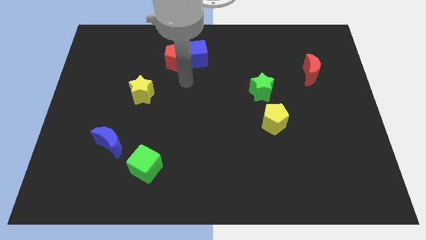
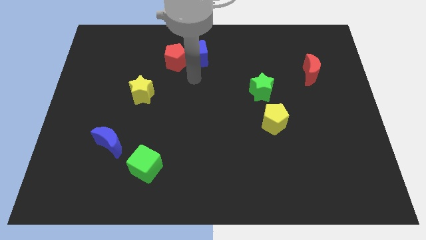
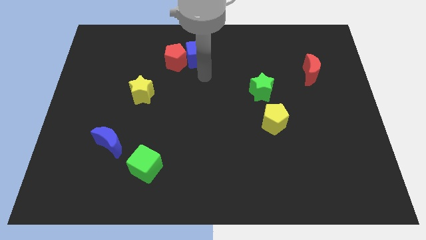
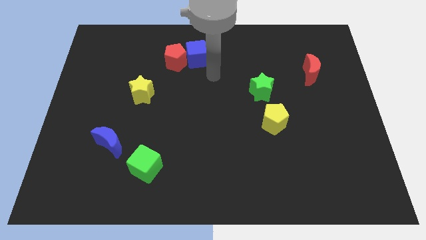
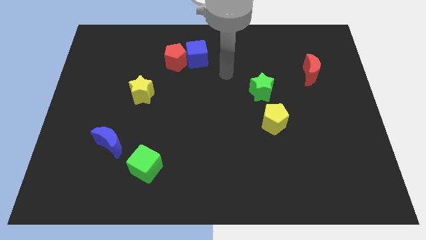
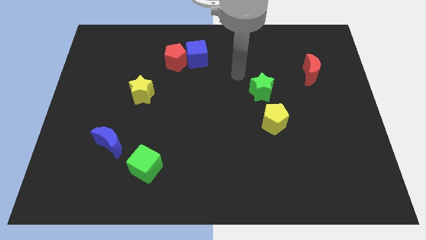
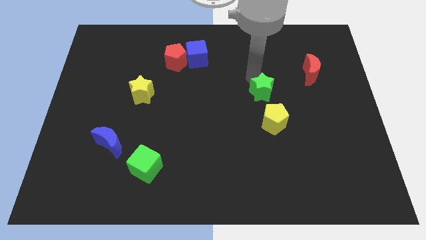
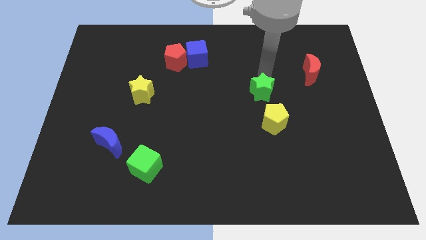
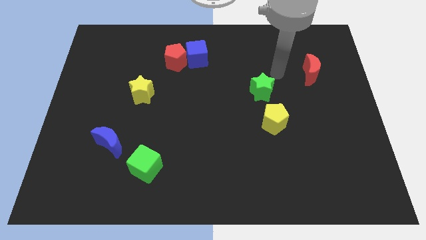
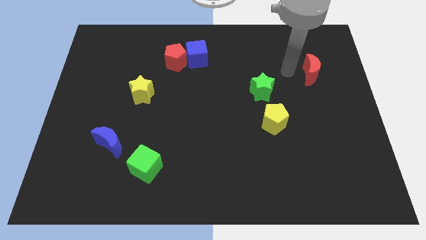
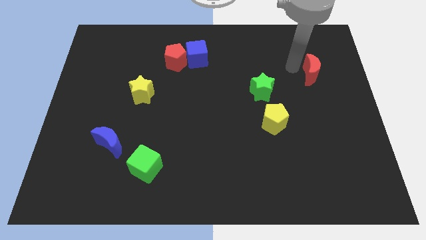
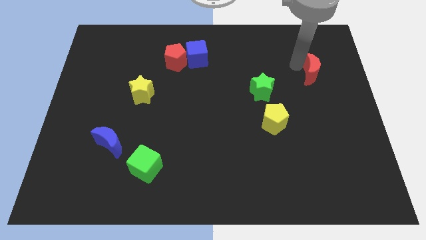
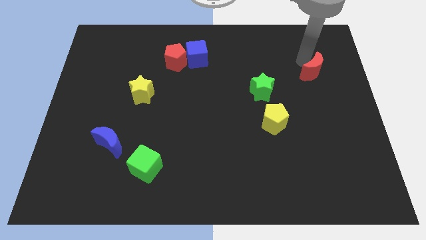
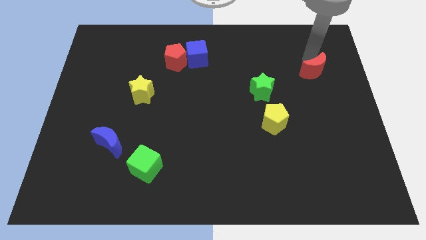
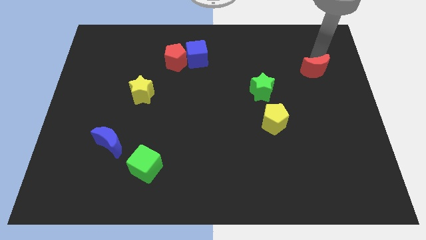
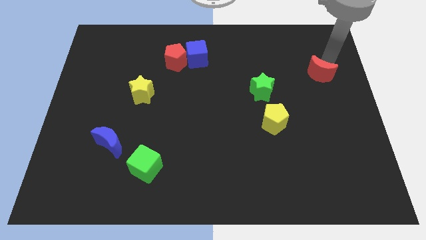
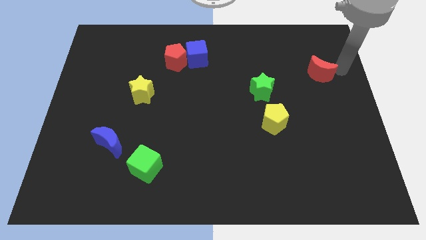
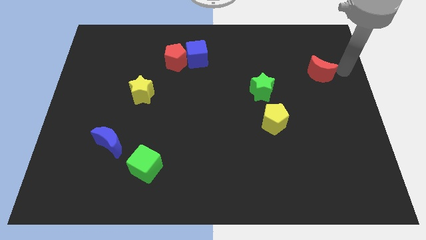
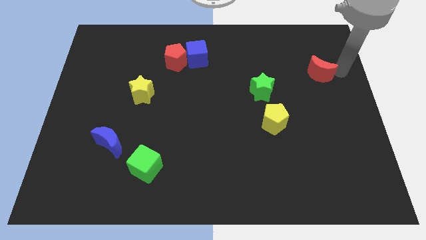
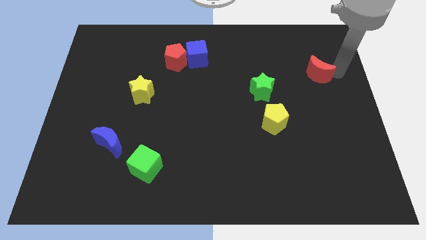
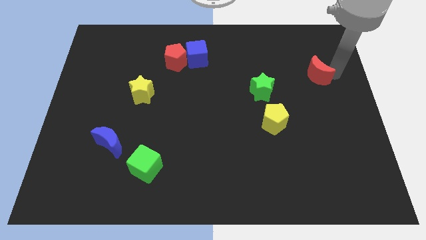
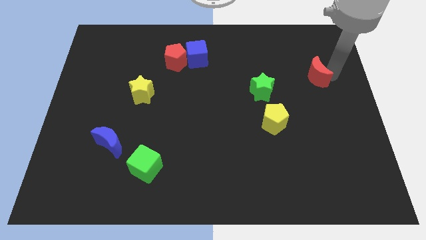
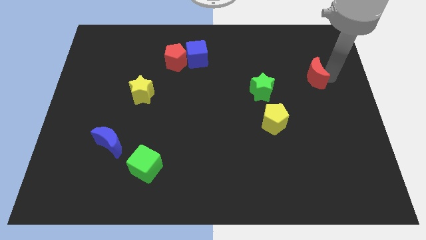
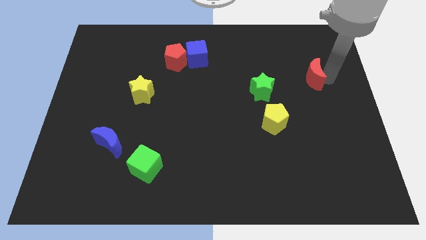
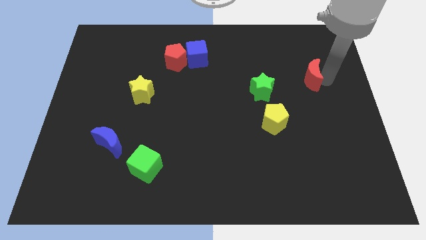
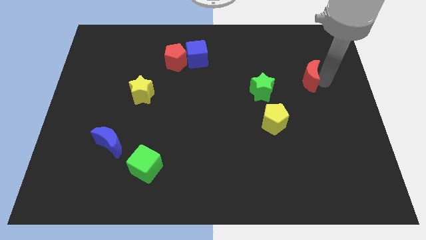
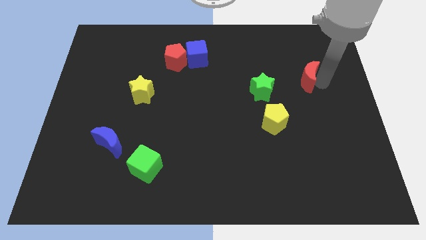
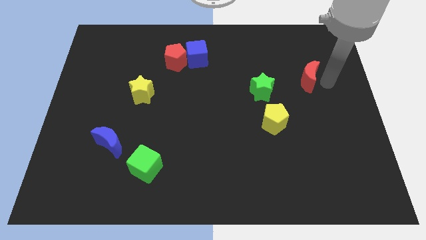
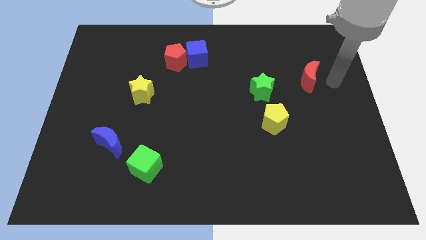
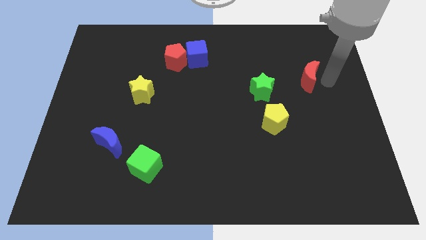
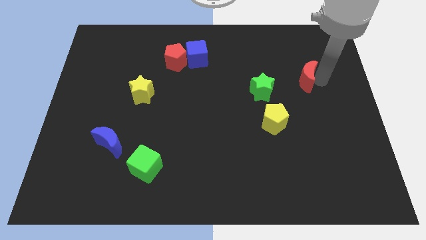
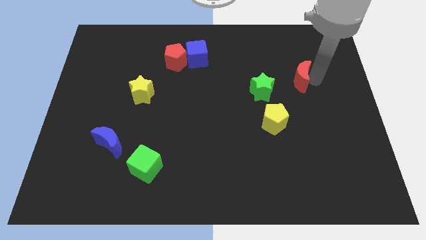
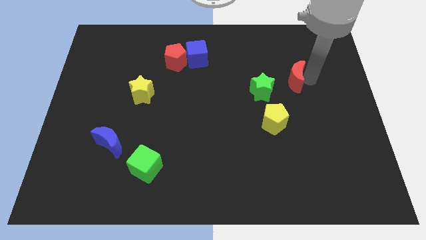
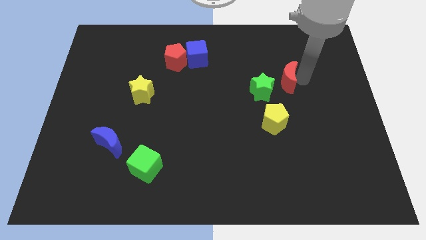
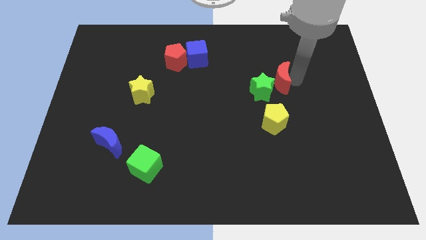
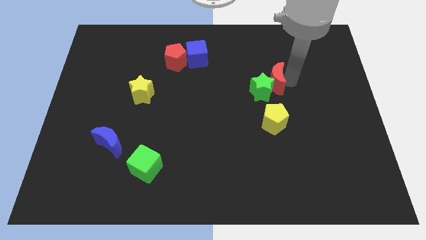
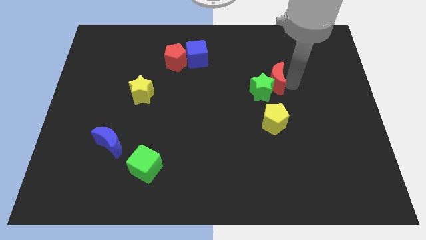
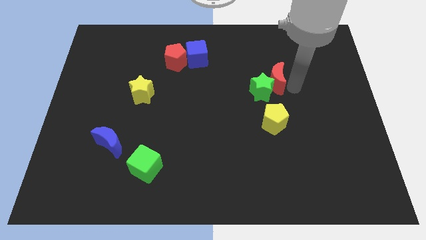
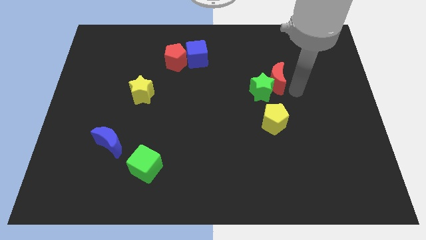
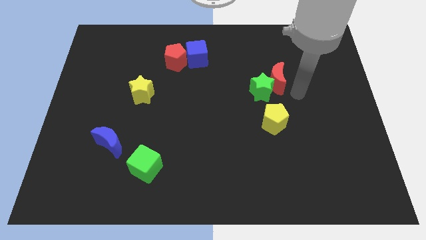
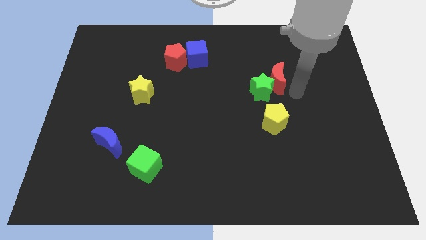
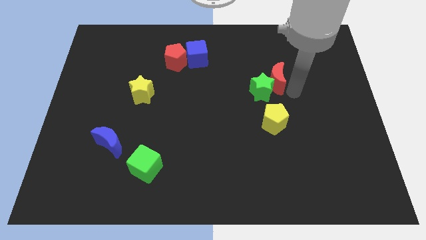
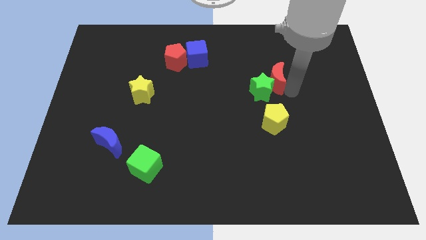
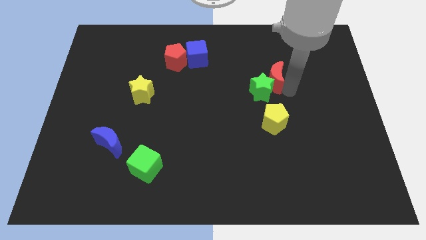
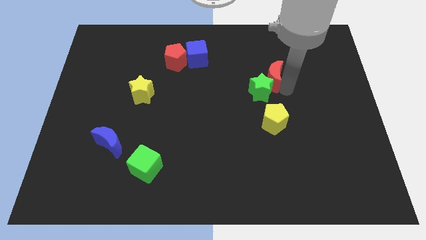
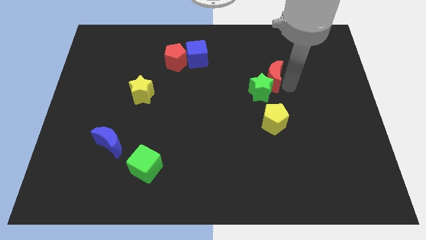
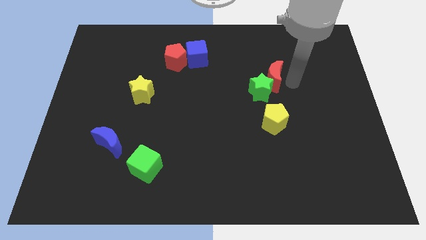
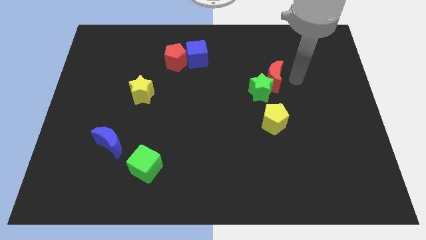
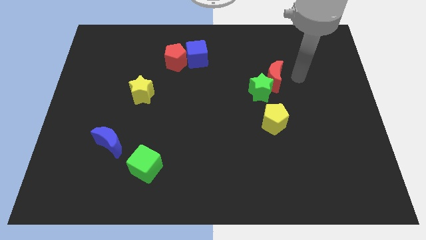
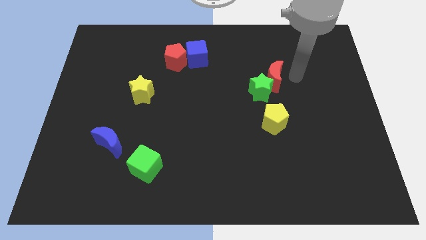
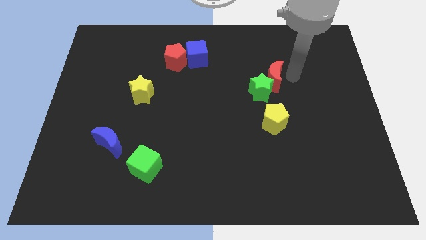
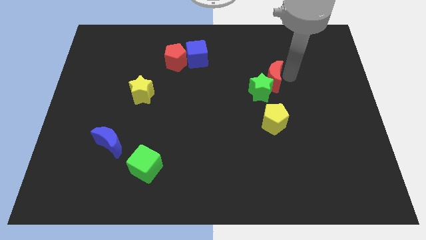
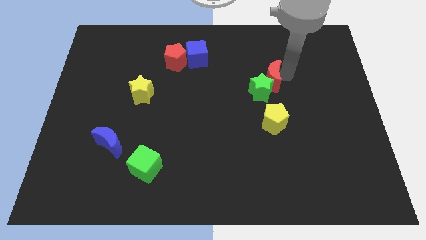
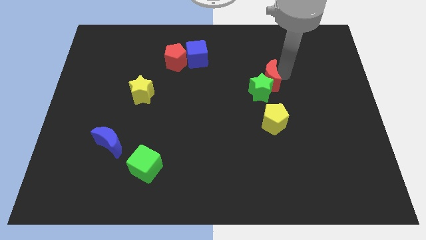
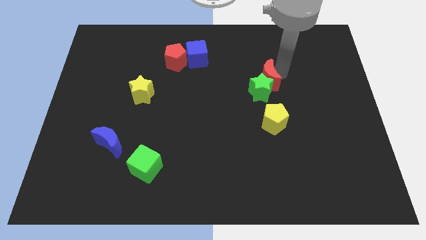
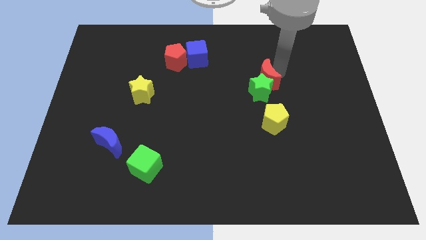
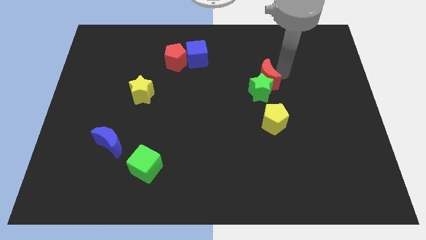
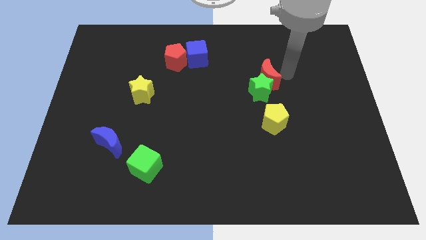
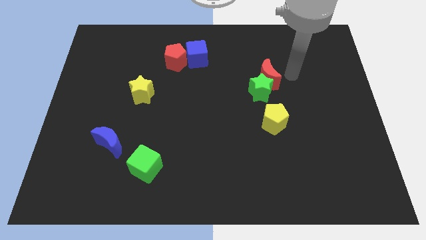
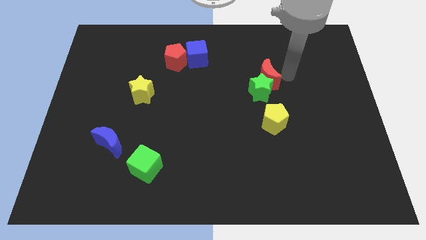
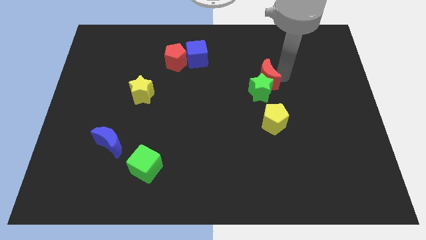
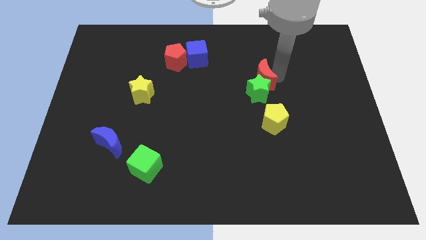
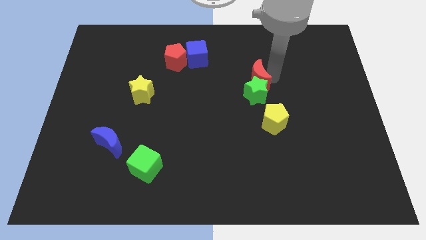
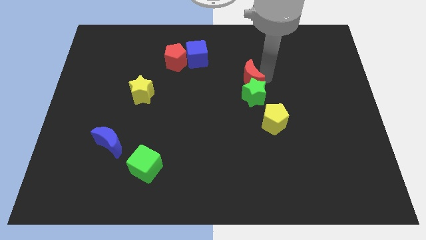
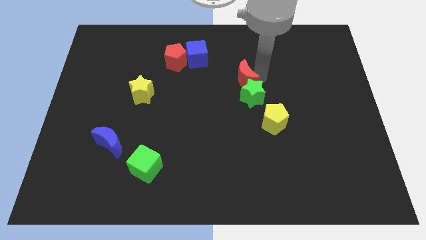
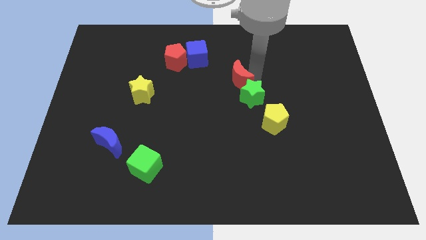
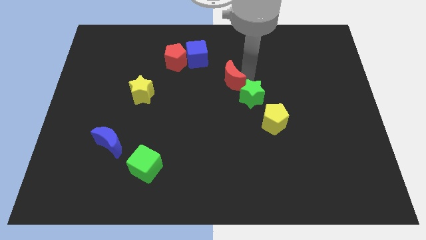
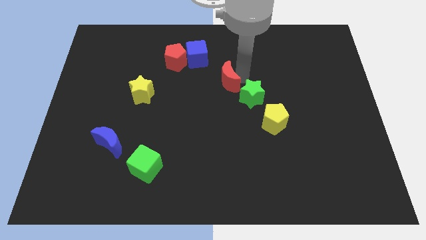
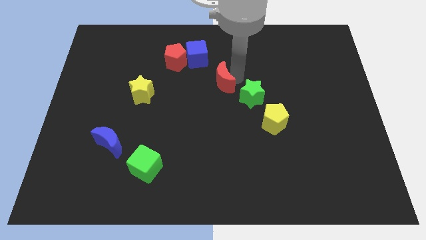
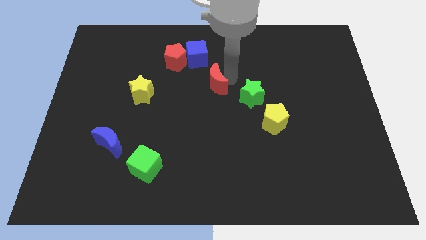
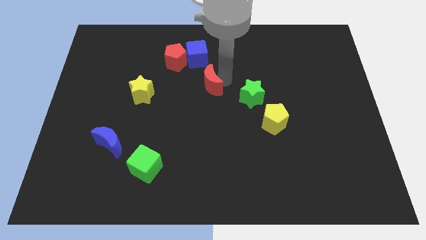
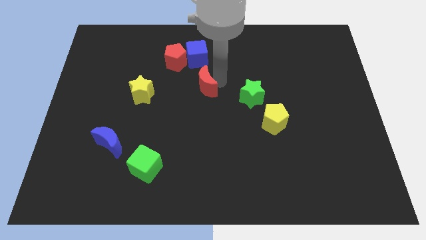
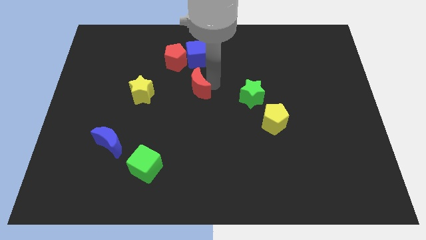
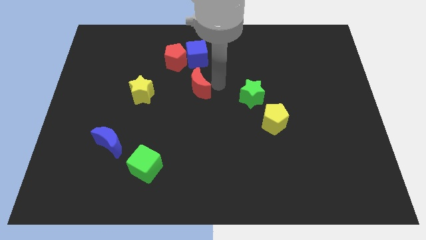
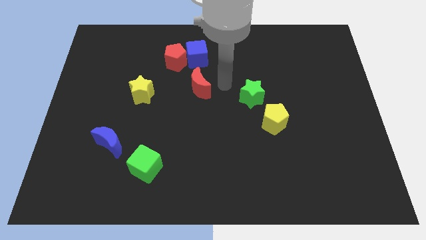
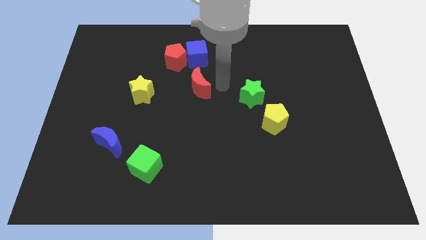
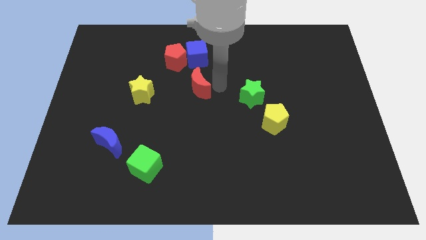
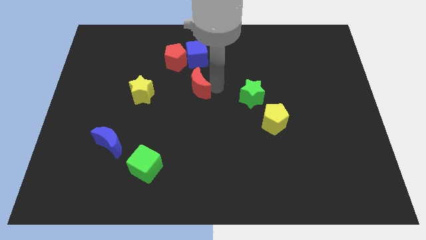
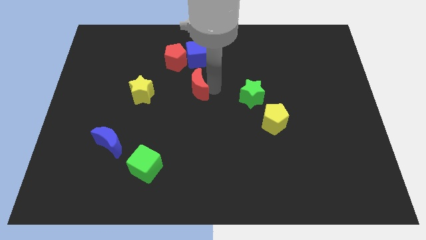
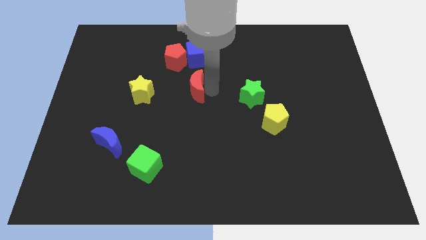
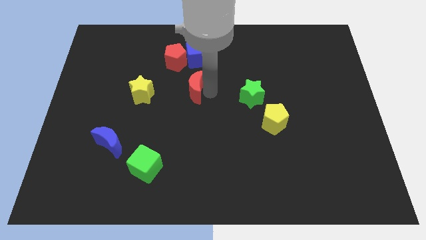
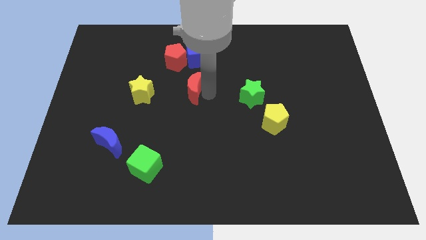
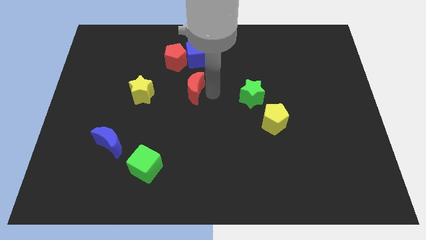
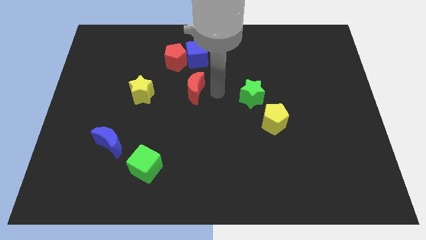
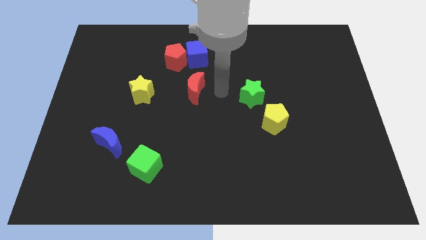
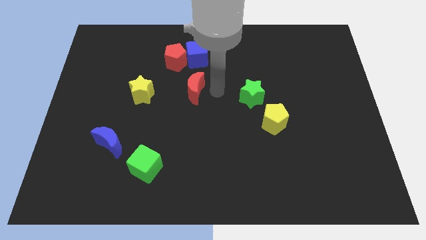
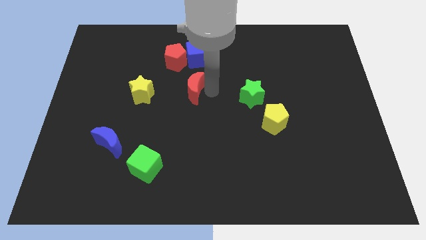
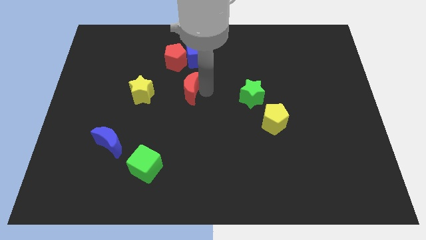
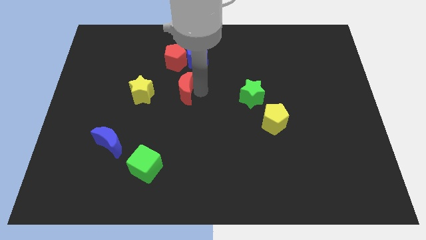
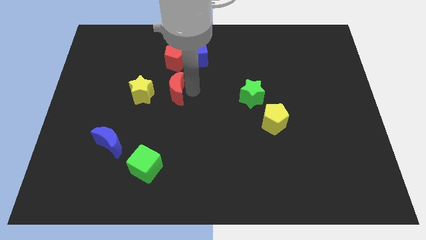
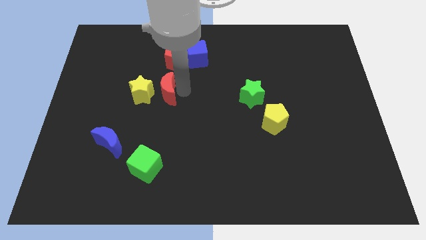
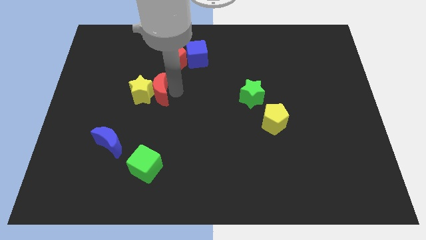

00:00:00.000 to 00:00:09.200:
slide the red moon towards the yellow star
